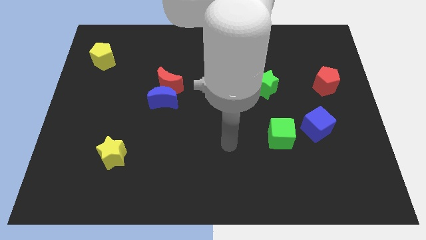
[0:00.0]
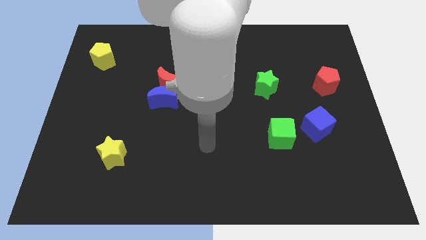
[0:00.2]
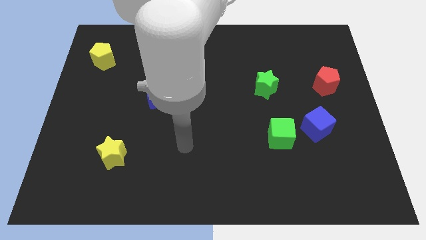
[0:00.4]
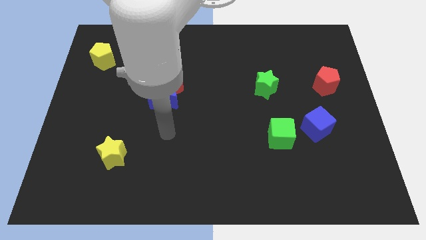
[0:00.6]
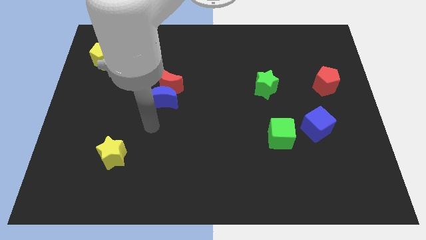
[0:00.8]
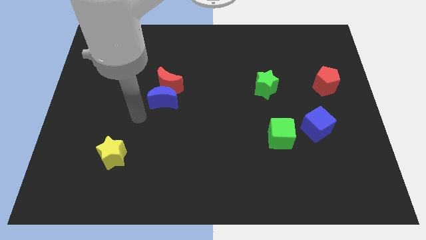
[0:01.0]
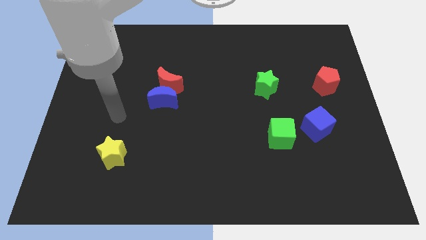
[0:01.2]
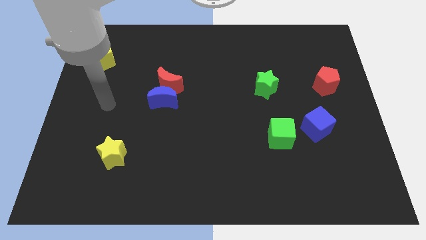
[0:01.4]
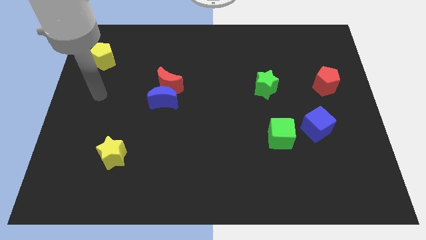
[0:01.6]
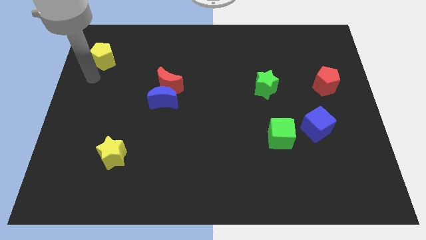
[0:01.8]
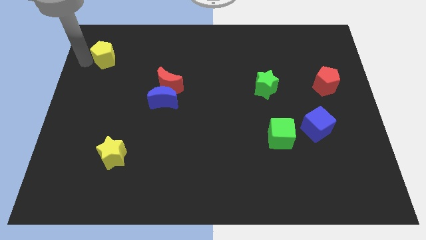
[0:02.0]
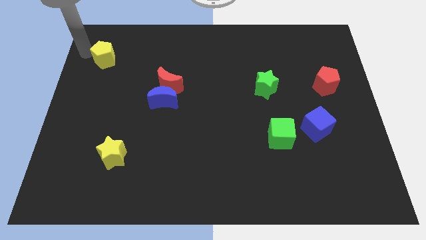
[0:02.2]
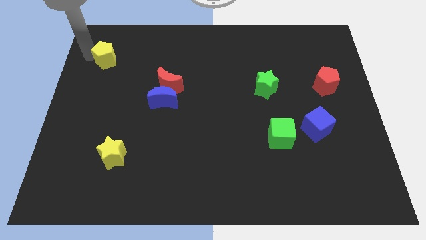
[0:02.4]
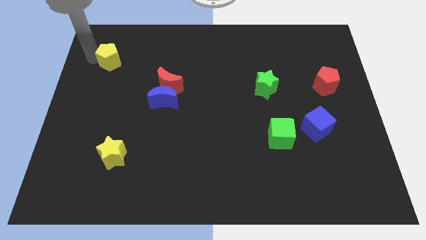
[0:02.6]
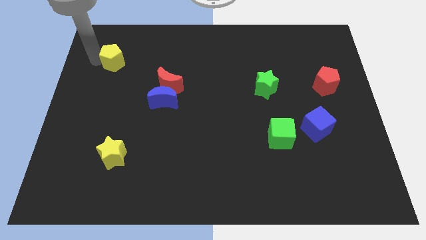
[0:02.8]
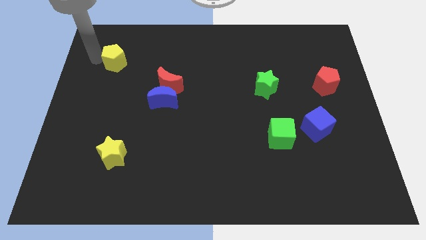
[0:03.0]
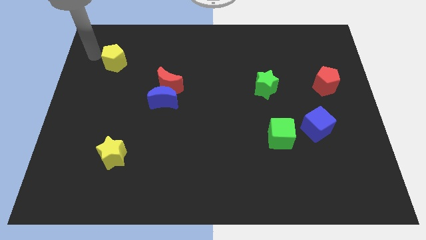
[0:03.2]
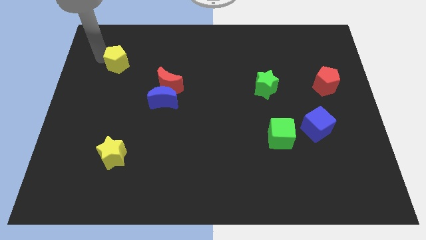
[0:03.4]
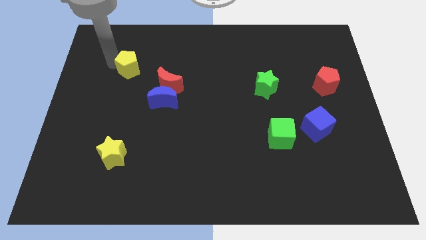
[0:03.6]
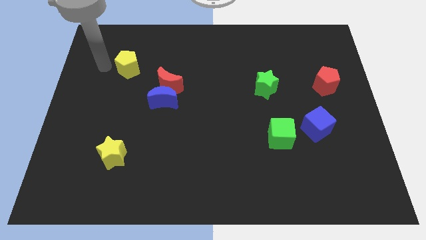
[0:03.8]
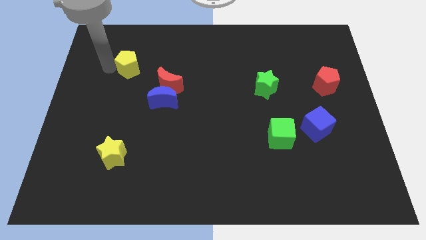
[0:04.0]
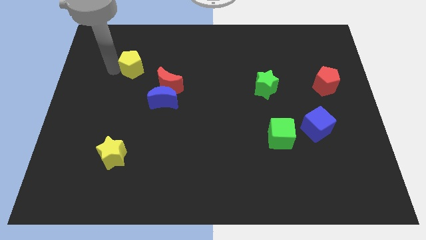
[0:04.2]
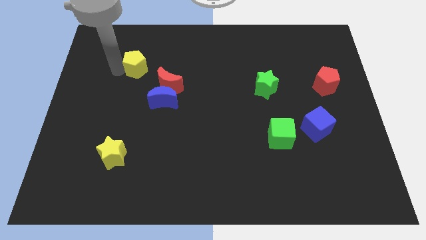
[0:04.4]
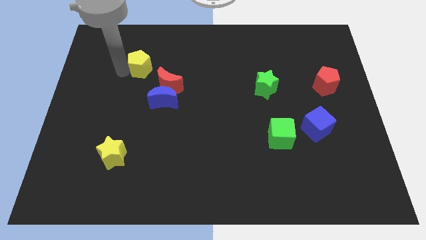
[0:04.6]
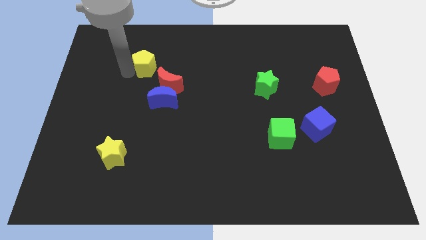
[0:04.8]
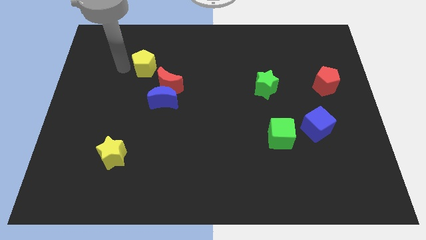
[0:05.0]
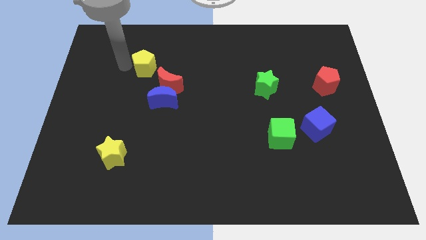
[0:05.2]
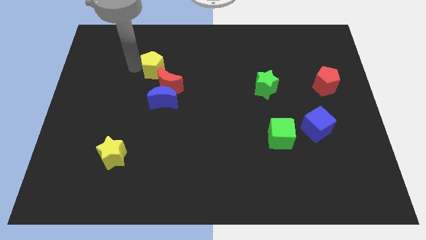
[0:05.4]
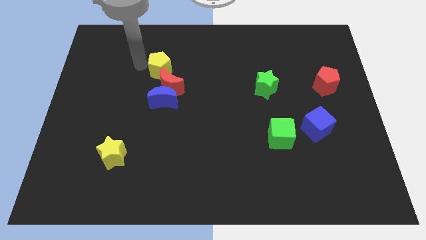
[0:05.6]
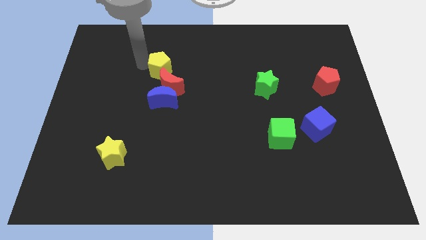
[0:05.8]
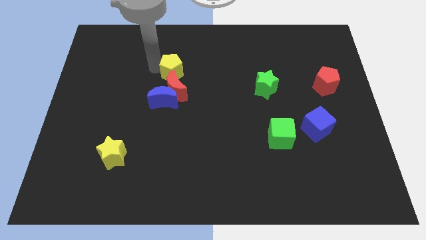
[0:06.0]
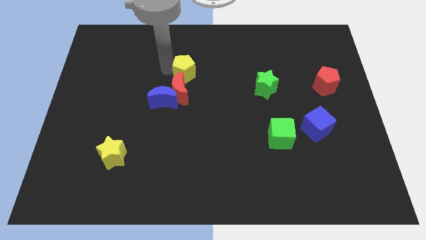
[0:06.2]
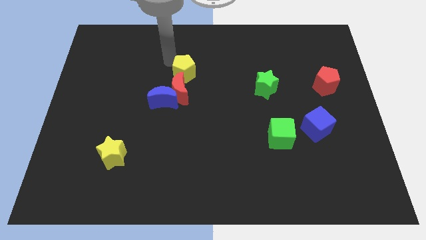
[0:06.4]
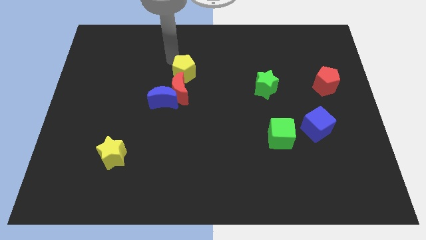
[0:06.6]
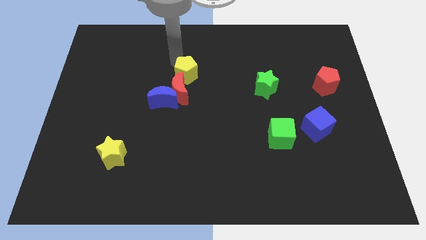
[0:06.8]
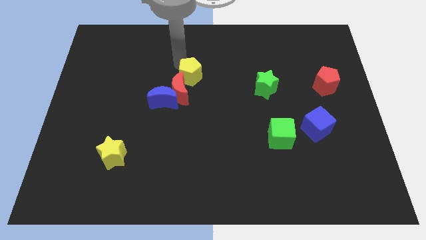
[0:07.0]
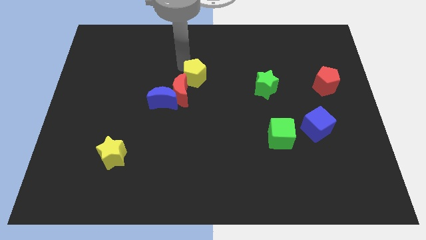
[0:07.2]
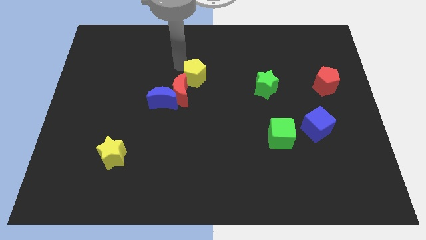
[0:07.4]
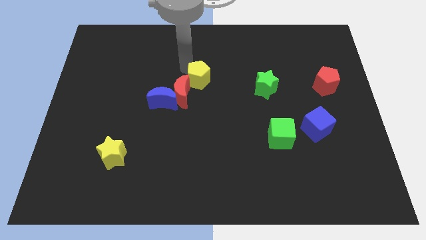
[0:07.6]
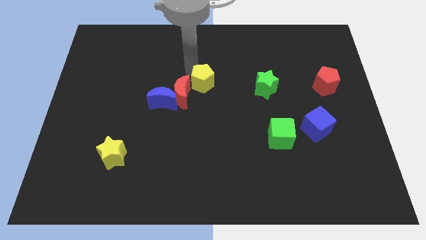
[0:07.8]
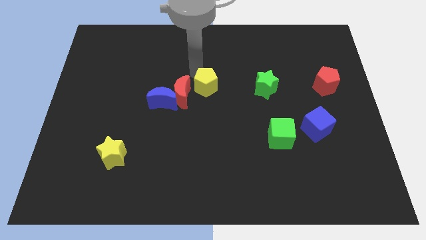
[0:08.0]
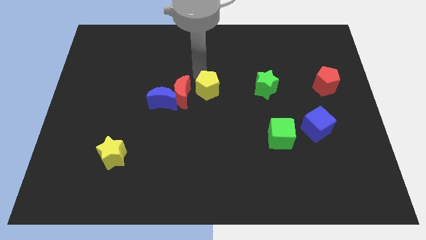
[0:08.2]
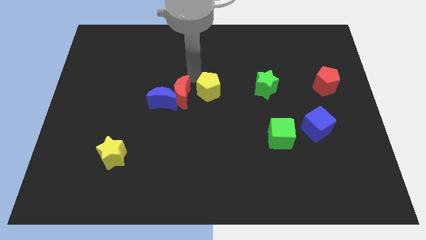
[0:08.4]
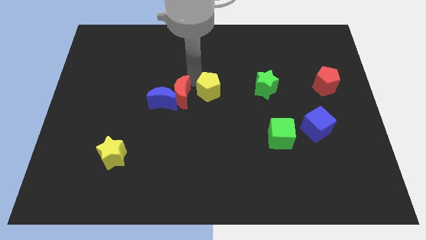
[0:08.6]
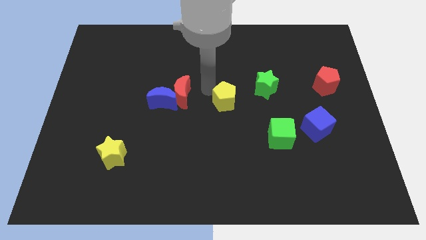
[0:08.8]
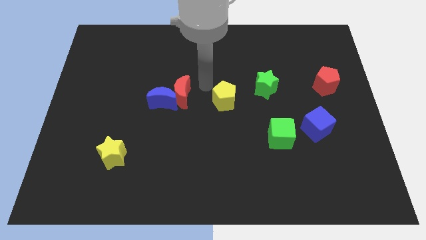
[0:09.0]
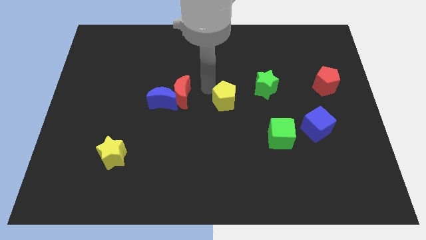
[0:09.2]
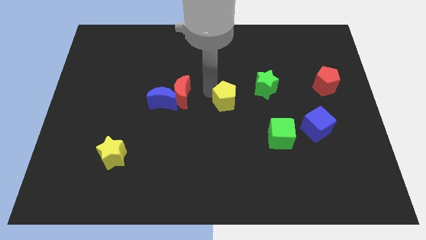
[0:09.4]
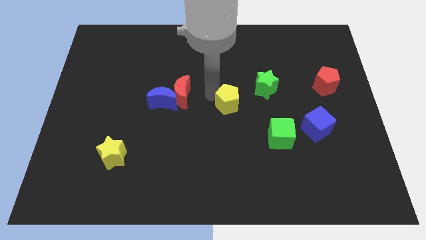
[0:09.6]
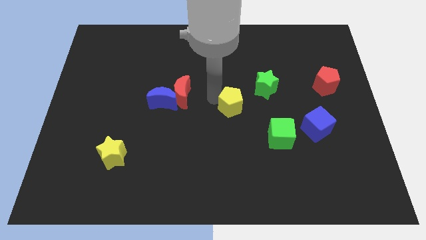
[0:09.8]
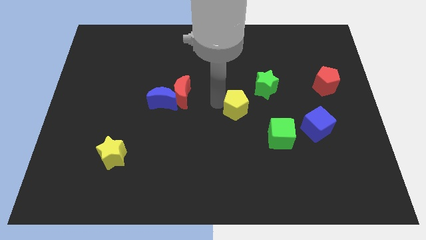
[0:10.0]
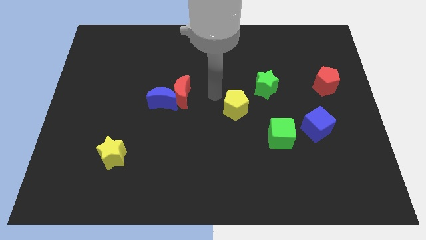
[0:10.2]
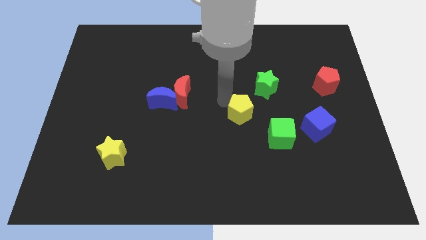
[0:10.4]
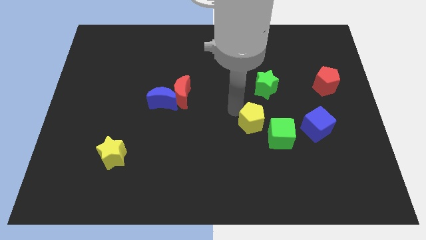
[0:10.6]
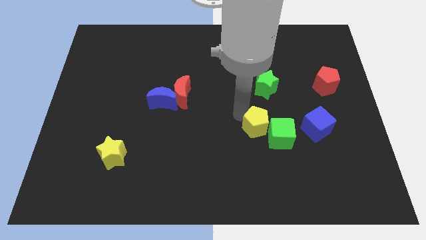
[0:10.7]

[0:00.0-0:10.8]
put the yellow pentagon next to the green cube

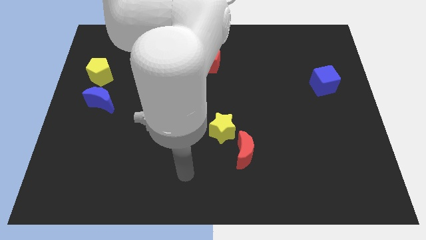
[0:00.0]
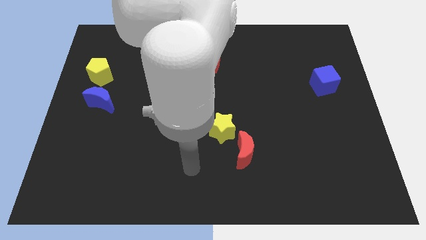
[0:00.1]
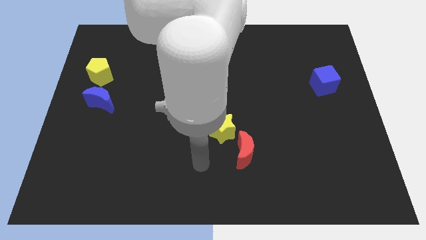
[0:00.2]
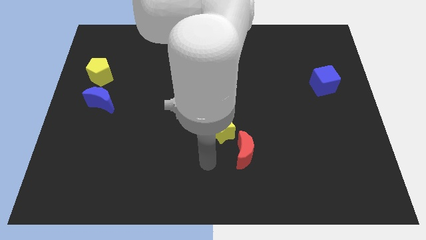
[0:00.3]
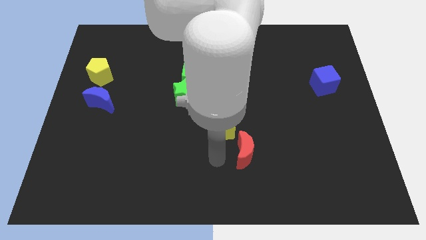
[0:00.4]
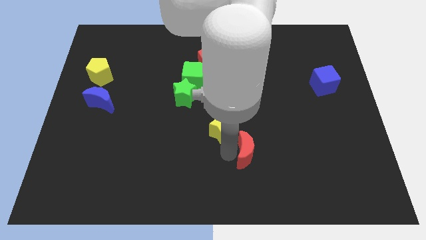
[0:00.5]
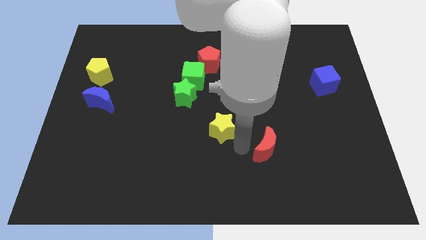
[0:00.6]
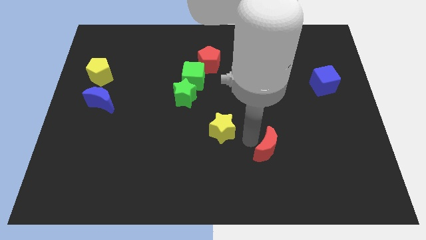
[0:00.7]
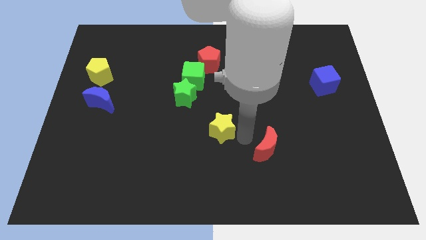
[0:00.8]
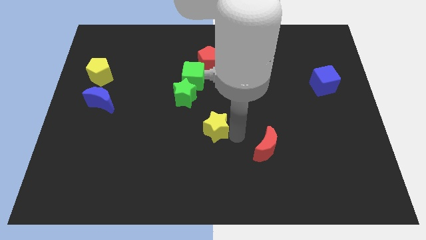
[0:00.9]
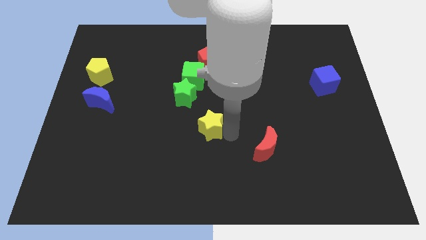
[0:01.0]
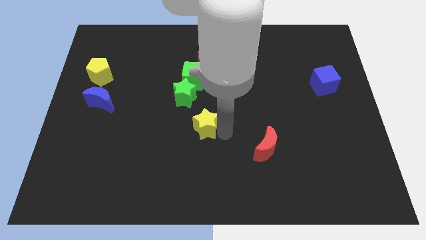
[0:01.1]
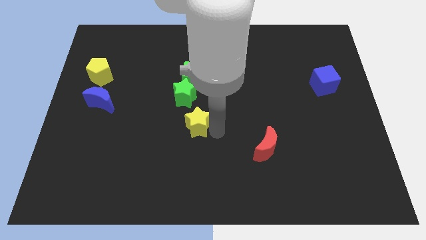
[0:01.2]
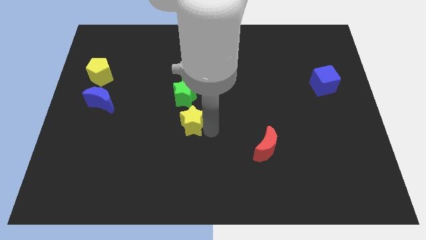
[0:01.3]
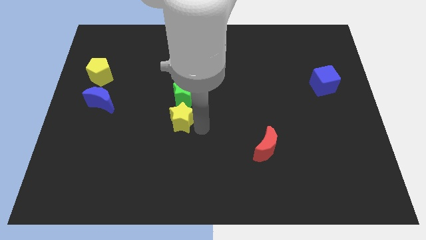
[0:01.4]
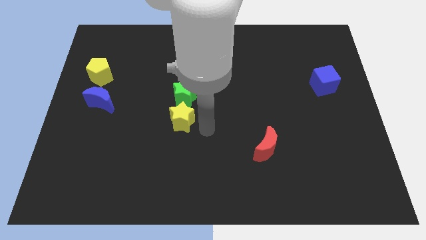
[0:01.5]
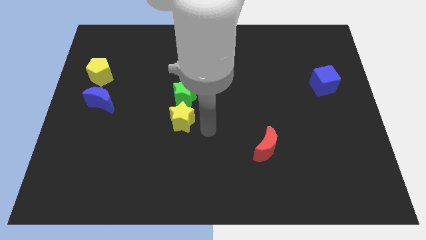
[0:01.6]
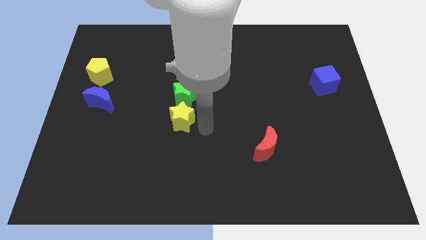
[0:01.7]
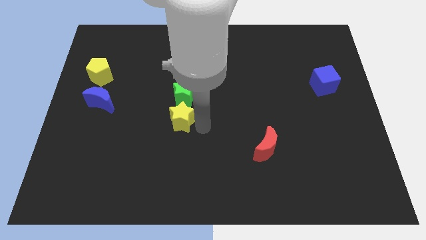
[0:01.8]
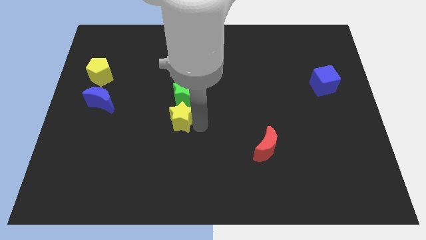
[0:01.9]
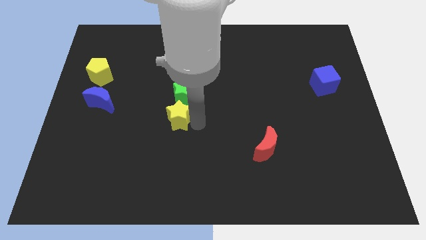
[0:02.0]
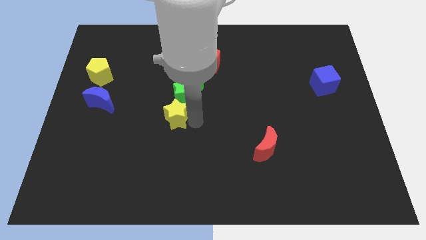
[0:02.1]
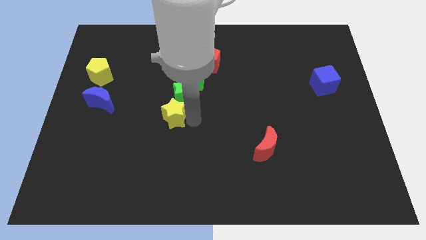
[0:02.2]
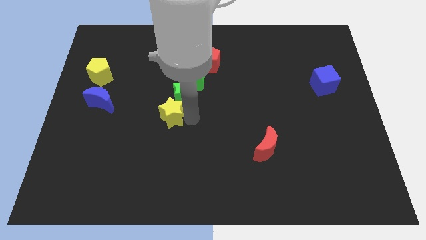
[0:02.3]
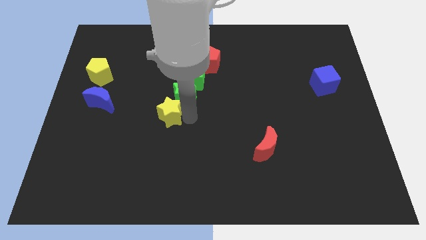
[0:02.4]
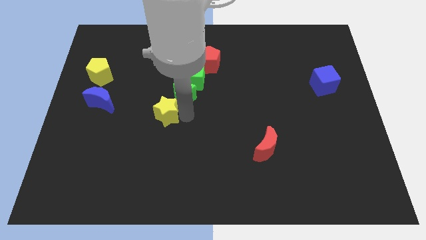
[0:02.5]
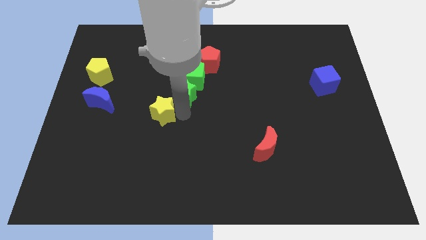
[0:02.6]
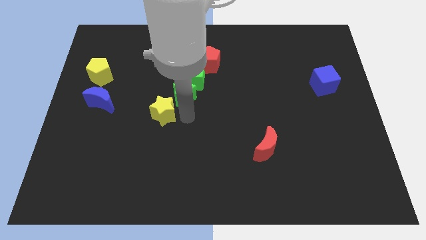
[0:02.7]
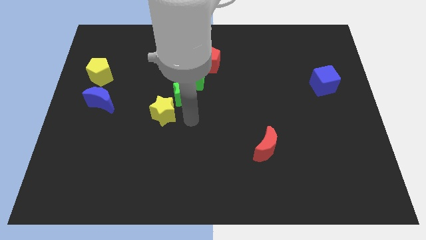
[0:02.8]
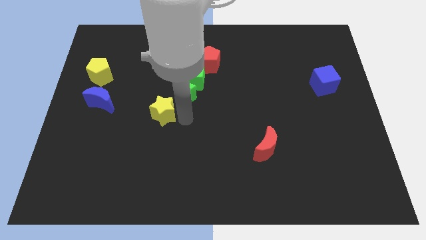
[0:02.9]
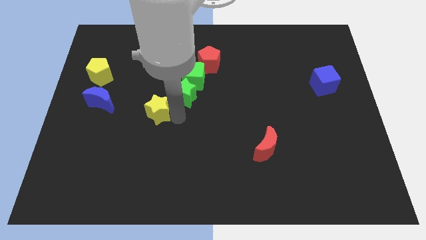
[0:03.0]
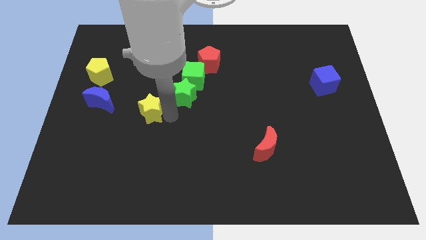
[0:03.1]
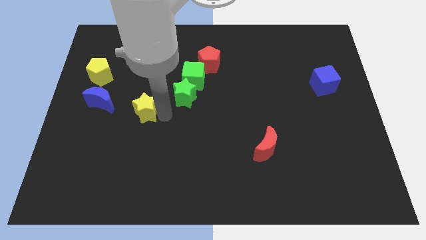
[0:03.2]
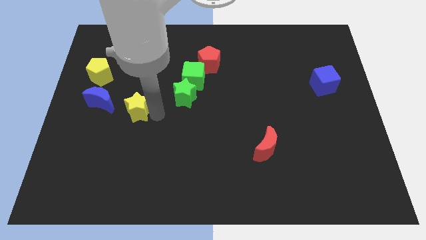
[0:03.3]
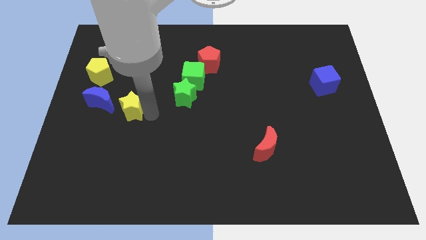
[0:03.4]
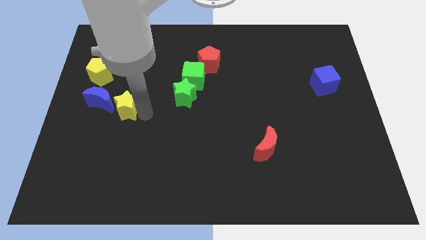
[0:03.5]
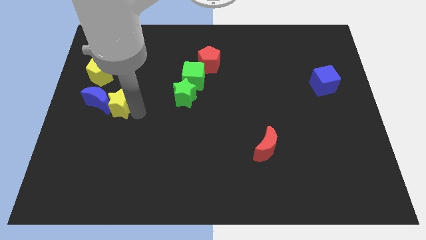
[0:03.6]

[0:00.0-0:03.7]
put the yellow star next to the blue moon
